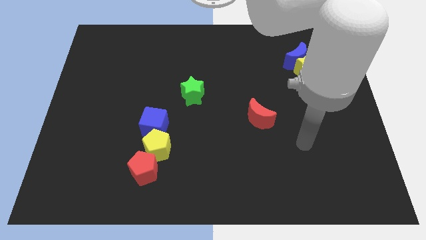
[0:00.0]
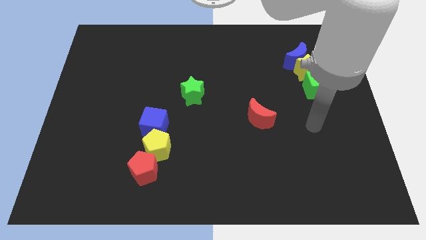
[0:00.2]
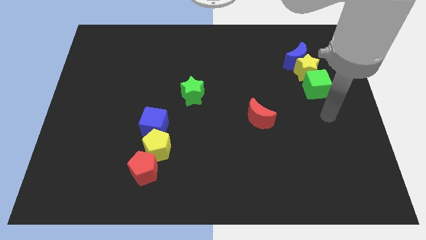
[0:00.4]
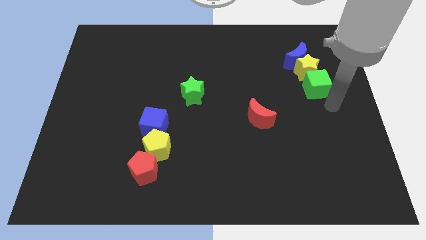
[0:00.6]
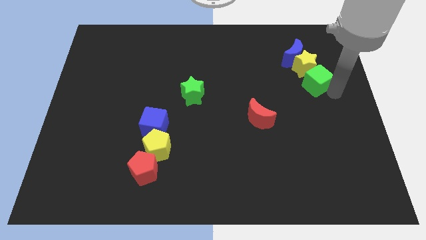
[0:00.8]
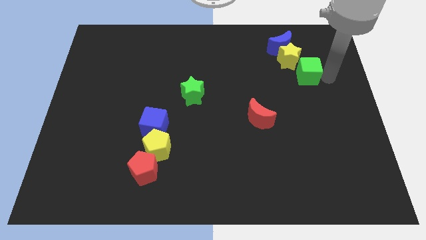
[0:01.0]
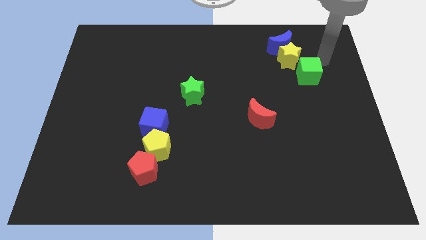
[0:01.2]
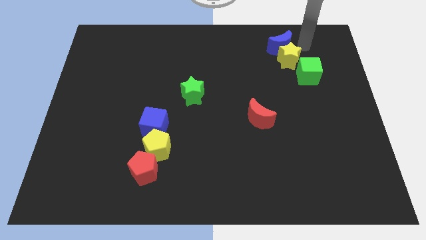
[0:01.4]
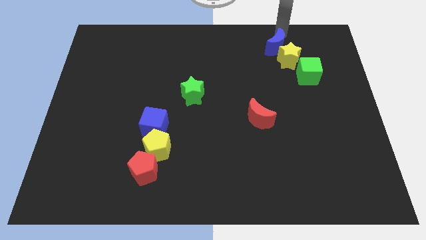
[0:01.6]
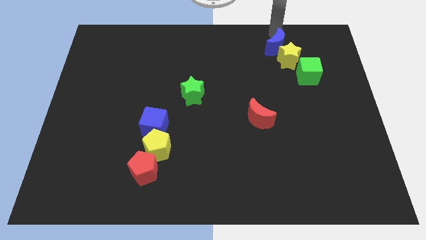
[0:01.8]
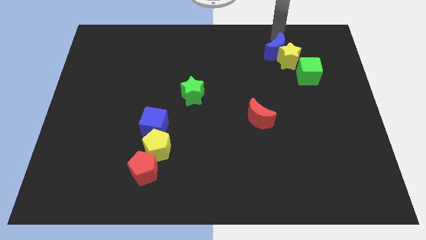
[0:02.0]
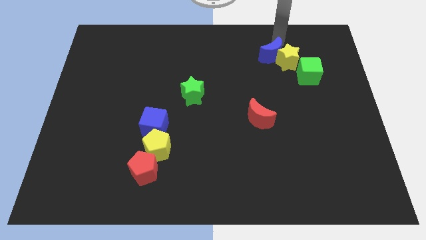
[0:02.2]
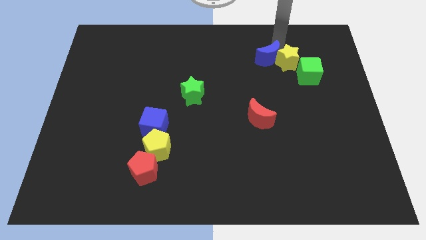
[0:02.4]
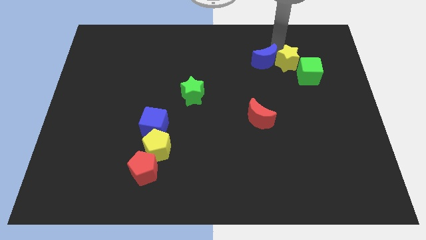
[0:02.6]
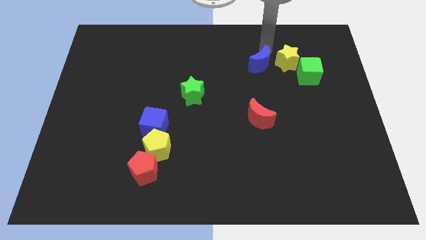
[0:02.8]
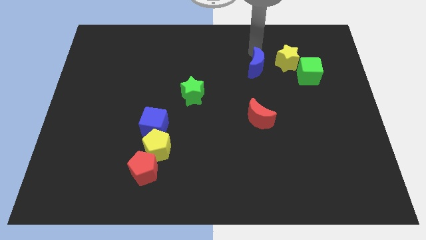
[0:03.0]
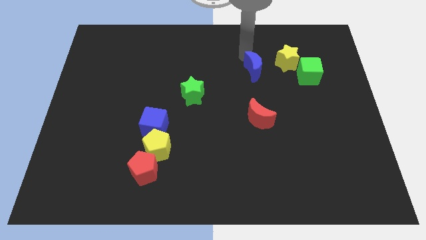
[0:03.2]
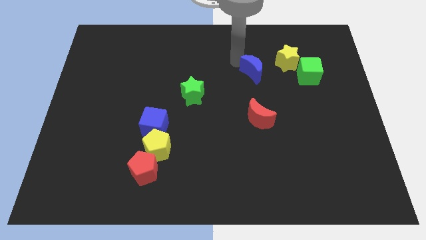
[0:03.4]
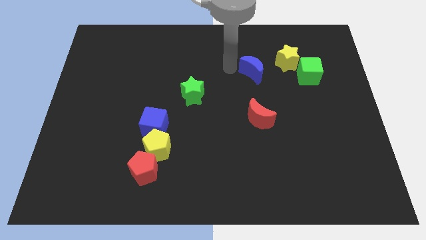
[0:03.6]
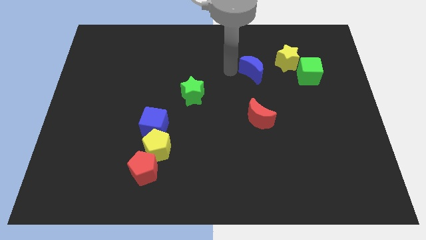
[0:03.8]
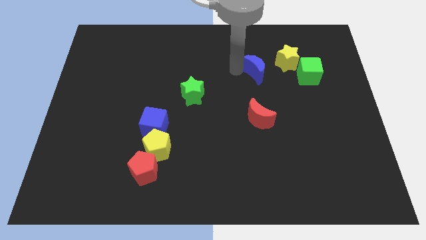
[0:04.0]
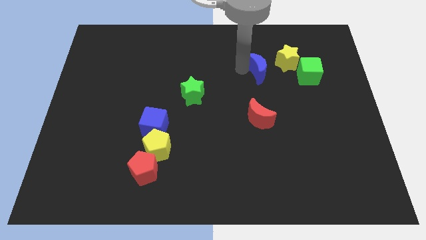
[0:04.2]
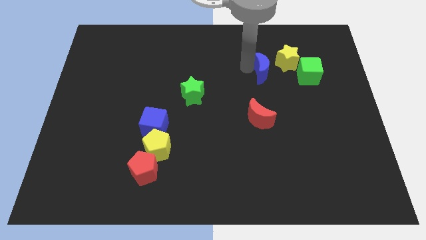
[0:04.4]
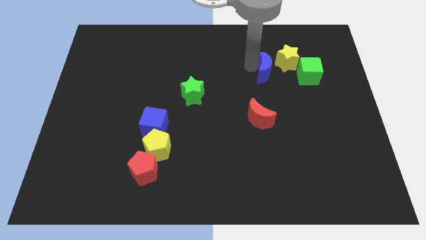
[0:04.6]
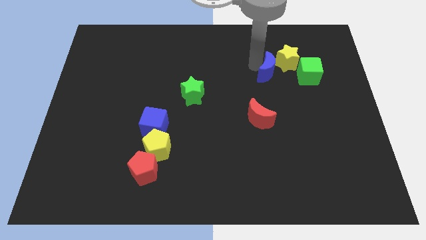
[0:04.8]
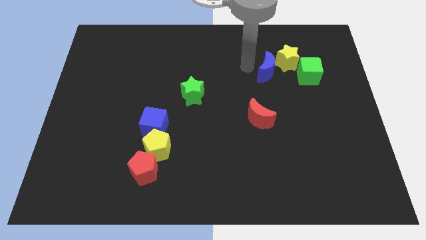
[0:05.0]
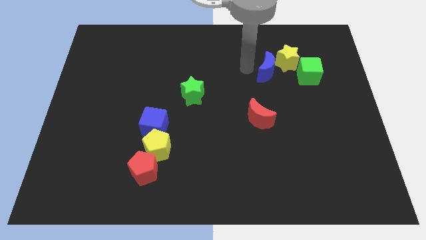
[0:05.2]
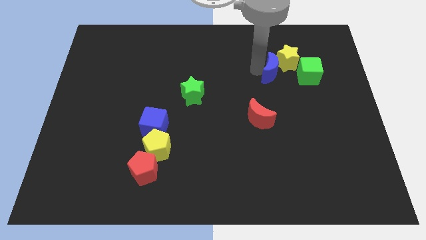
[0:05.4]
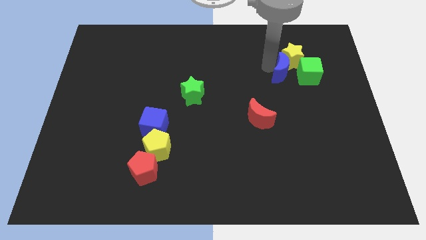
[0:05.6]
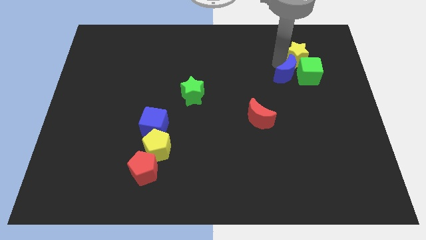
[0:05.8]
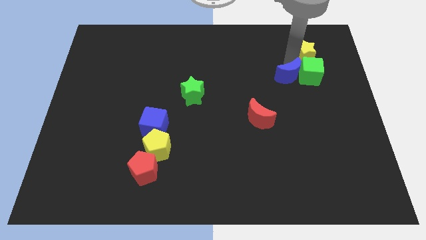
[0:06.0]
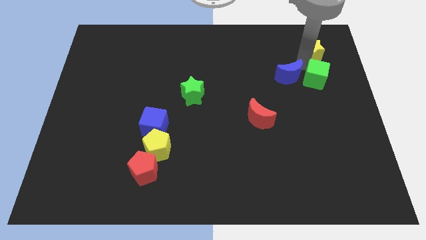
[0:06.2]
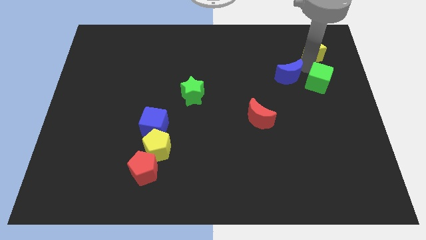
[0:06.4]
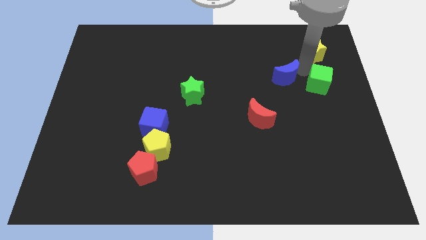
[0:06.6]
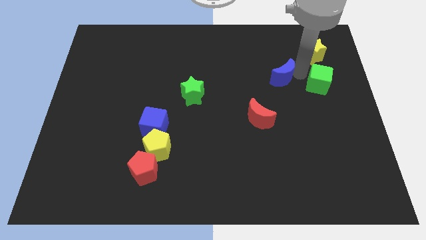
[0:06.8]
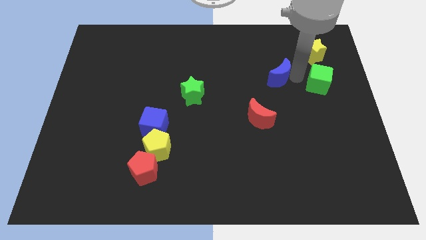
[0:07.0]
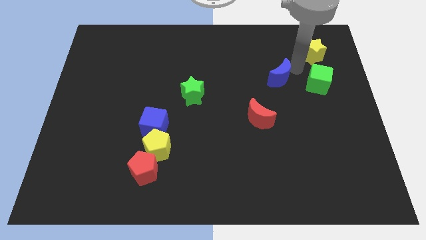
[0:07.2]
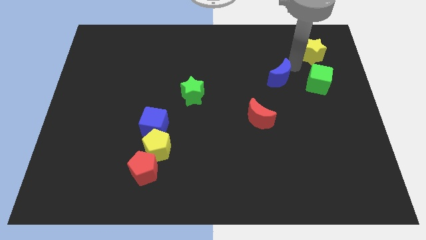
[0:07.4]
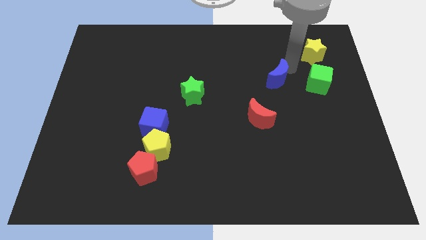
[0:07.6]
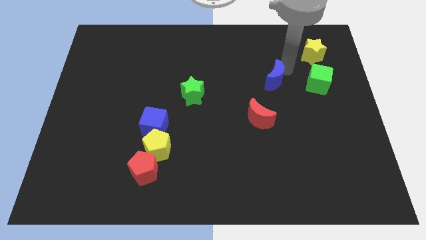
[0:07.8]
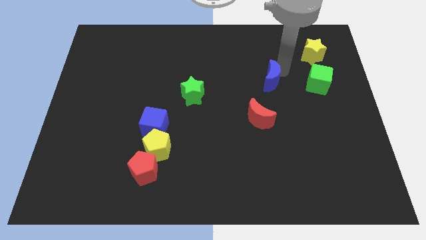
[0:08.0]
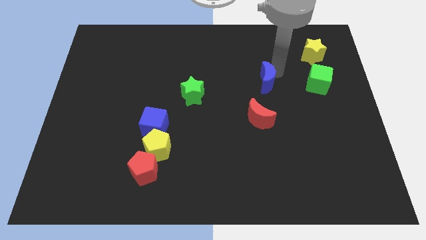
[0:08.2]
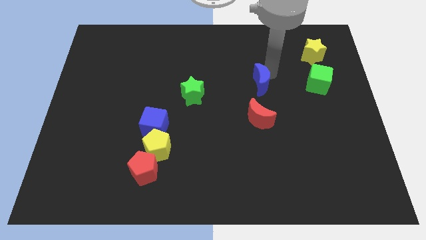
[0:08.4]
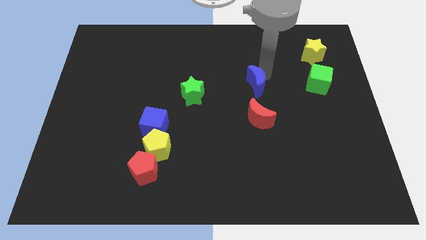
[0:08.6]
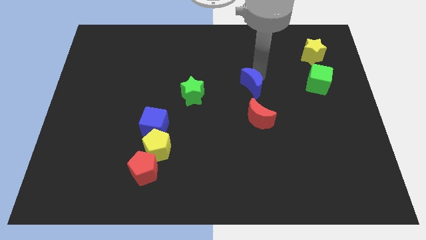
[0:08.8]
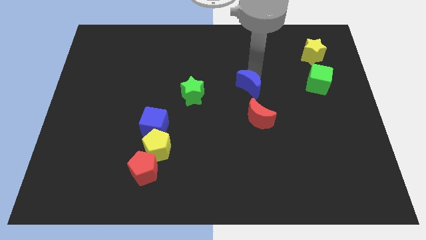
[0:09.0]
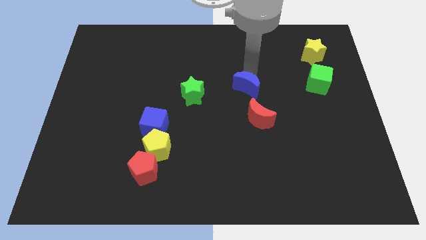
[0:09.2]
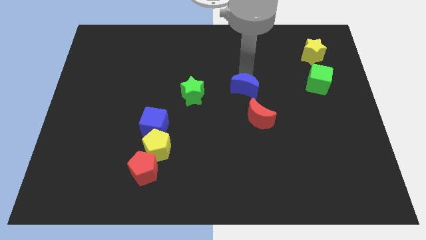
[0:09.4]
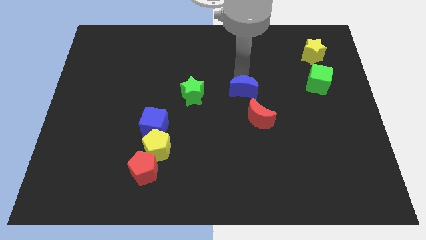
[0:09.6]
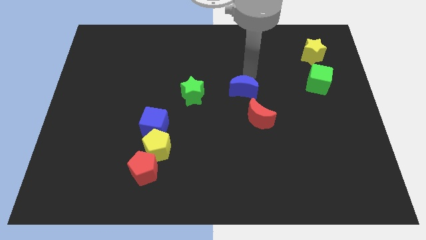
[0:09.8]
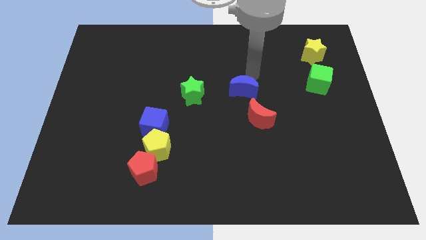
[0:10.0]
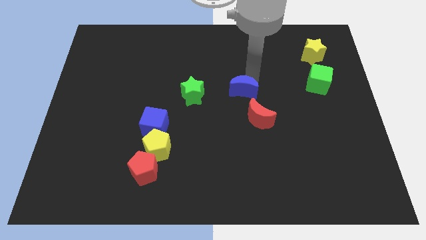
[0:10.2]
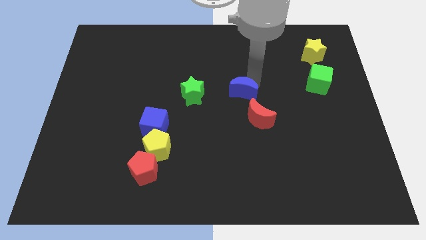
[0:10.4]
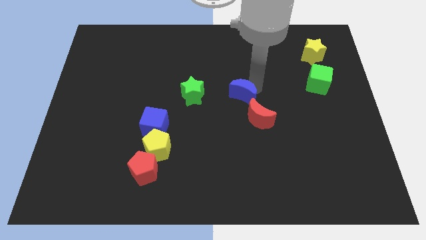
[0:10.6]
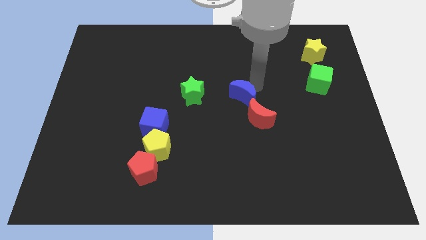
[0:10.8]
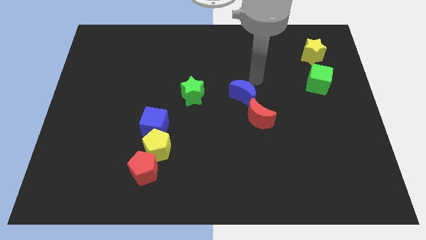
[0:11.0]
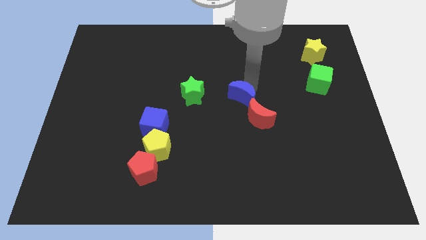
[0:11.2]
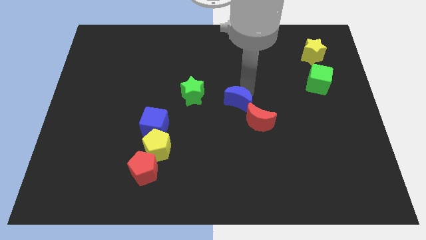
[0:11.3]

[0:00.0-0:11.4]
move the blue moon diagonally down and to the left

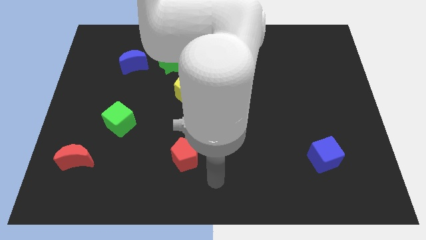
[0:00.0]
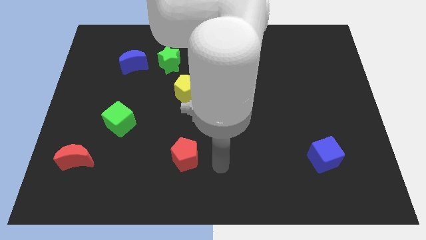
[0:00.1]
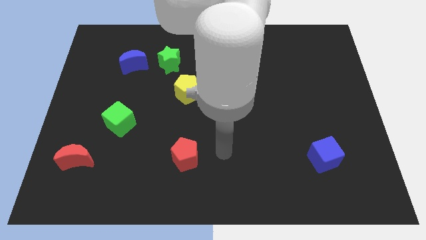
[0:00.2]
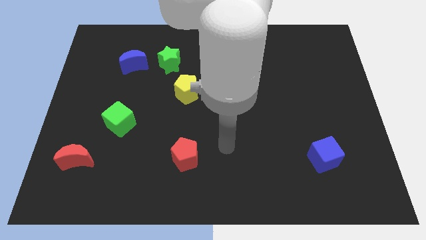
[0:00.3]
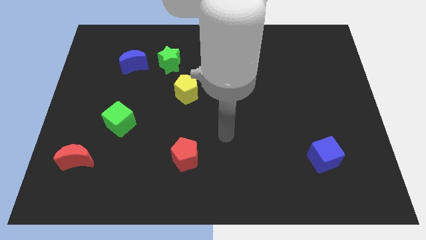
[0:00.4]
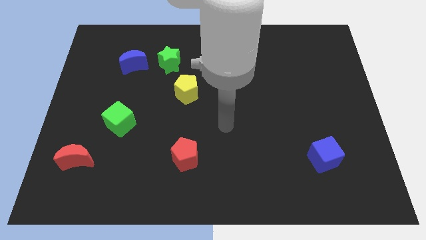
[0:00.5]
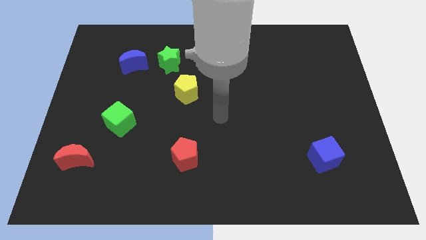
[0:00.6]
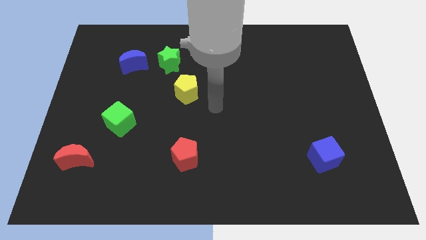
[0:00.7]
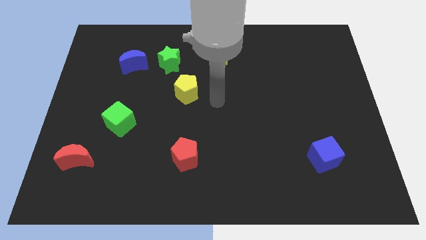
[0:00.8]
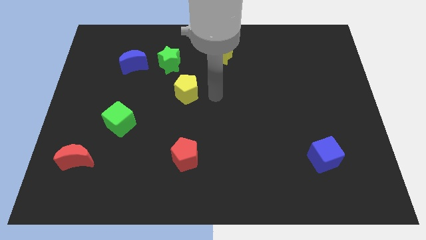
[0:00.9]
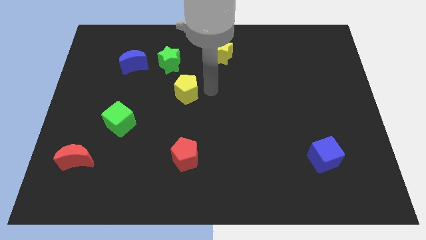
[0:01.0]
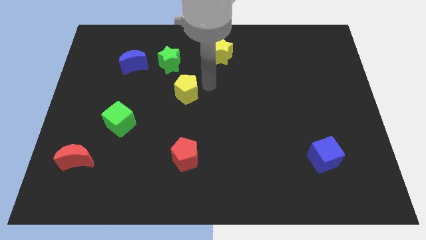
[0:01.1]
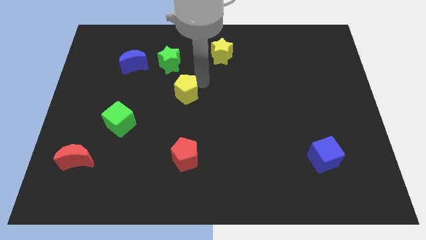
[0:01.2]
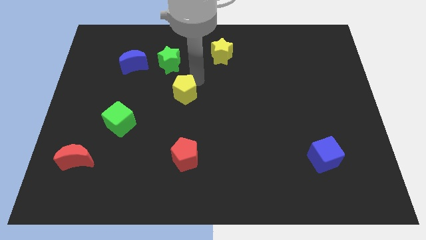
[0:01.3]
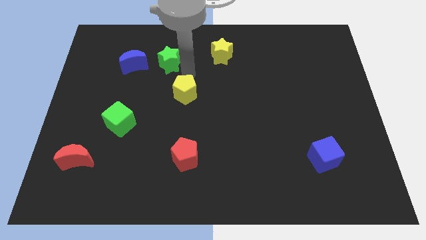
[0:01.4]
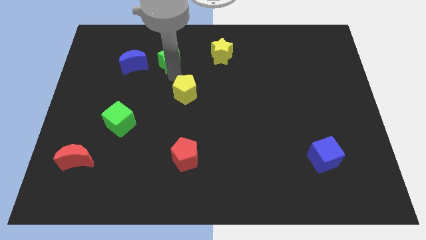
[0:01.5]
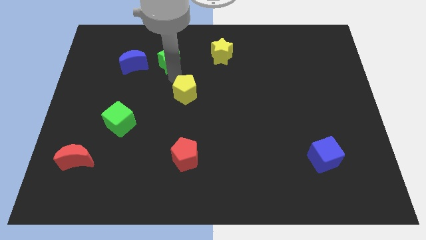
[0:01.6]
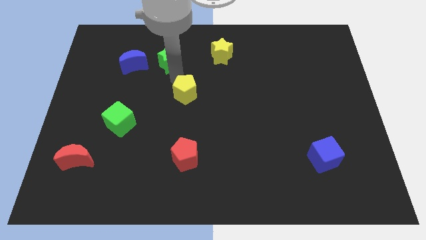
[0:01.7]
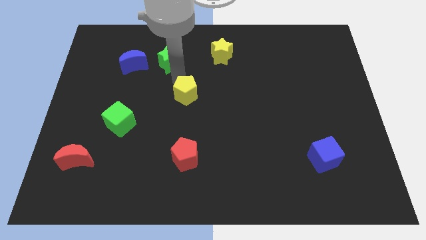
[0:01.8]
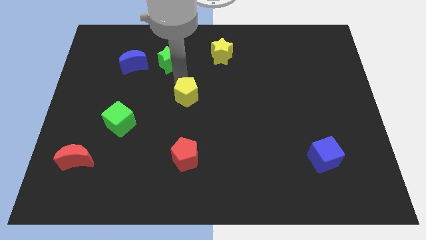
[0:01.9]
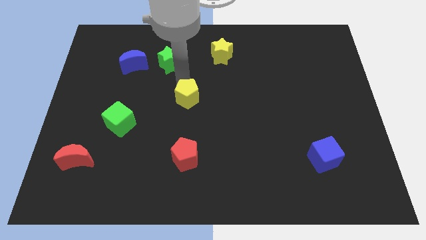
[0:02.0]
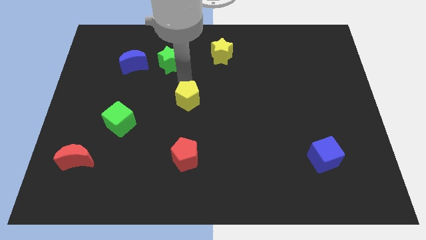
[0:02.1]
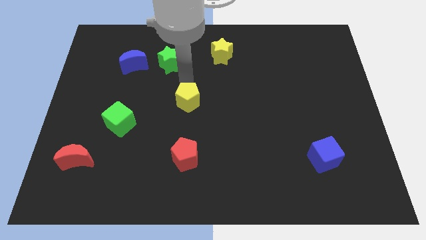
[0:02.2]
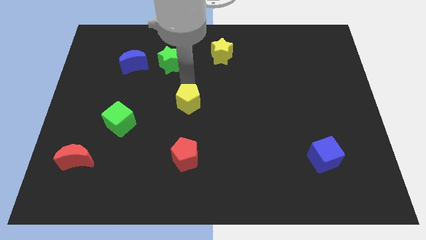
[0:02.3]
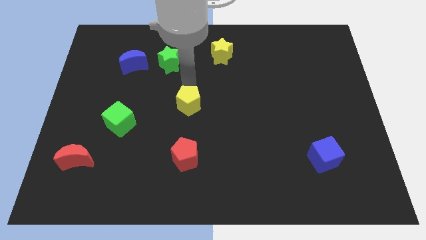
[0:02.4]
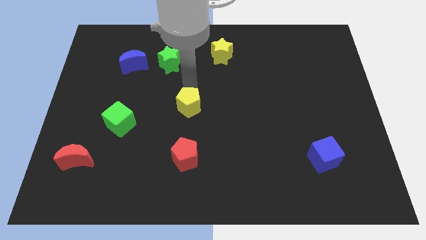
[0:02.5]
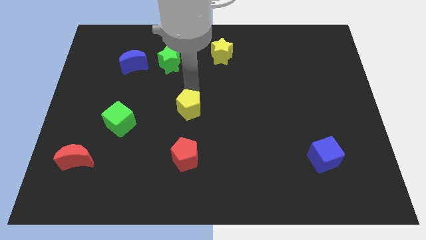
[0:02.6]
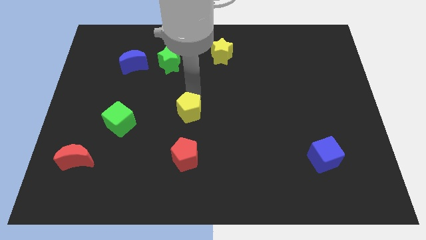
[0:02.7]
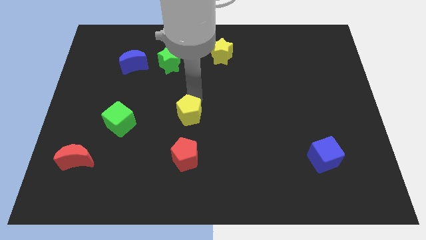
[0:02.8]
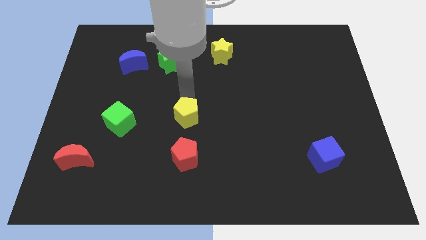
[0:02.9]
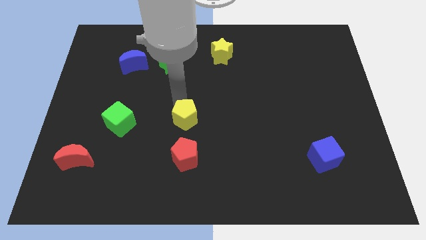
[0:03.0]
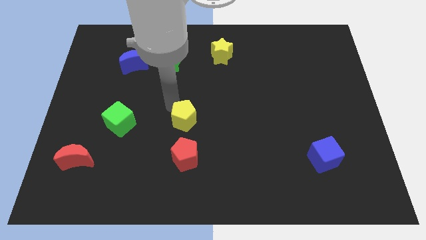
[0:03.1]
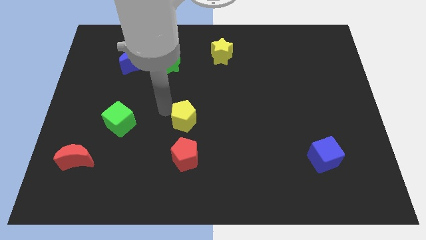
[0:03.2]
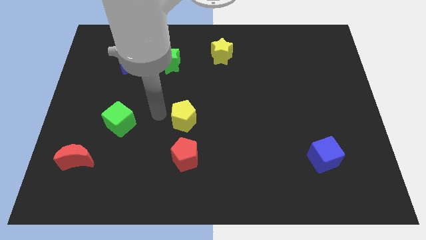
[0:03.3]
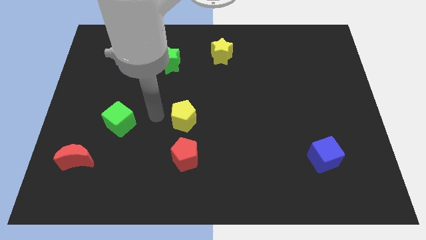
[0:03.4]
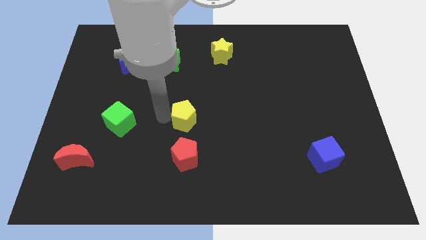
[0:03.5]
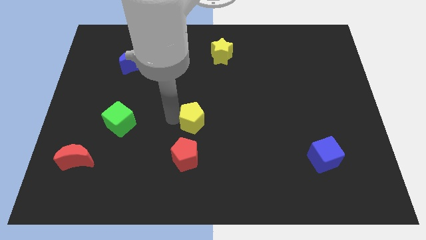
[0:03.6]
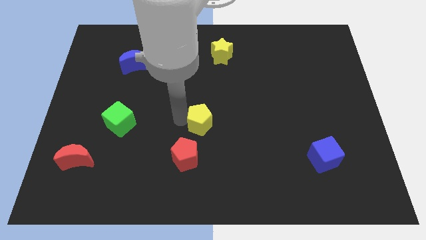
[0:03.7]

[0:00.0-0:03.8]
push the yellow pentagon somewhat diagonally down and right
